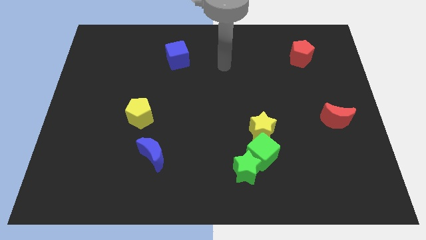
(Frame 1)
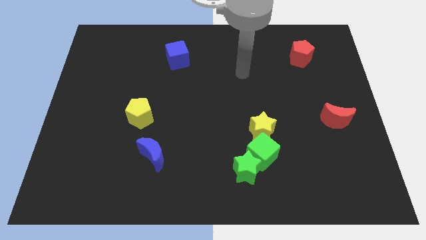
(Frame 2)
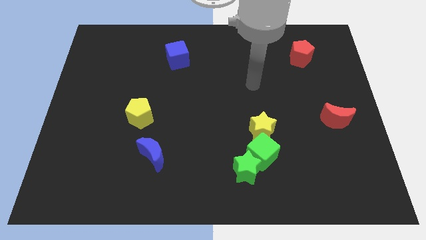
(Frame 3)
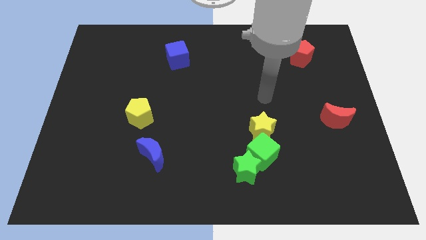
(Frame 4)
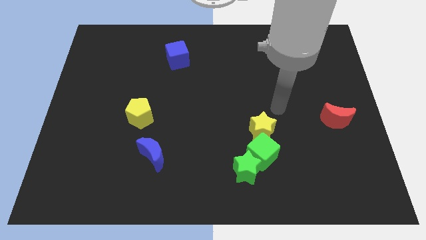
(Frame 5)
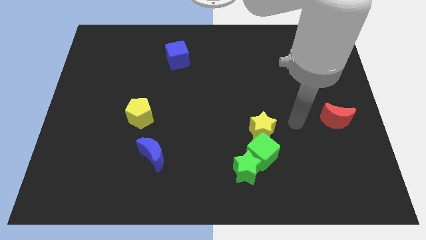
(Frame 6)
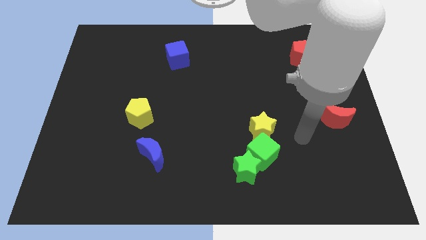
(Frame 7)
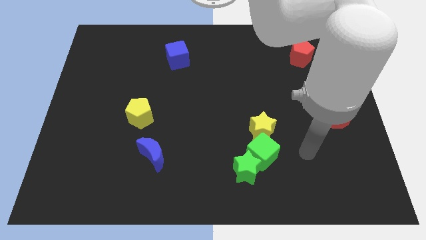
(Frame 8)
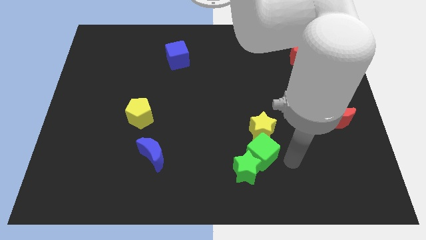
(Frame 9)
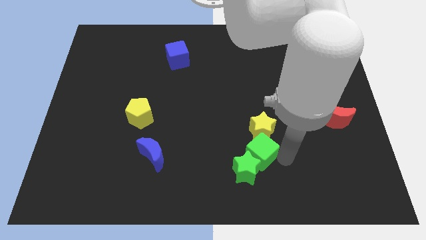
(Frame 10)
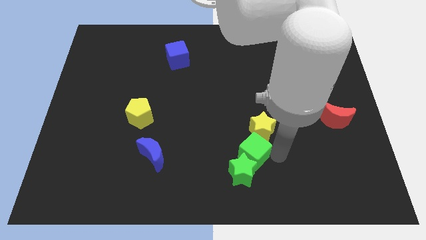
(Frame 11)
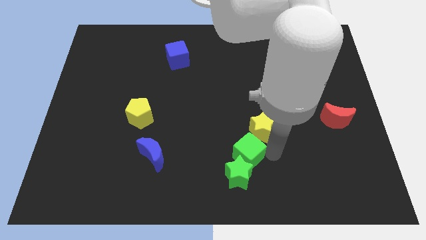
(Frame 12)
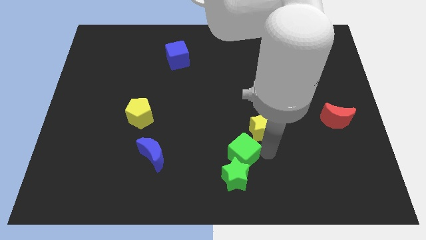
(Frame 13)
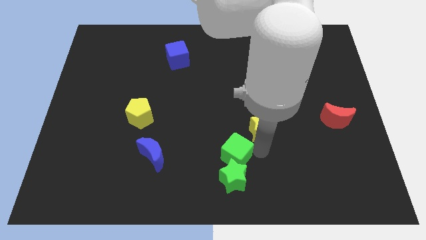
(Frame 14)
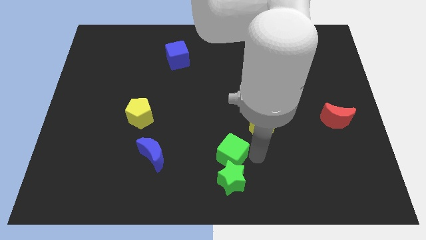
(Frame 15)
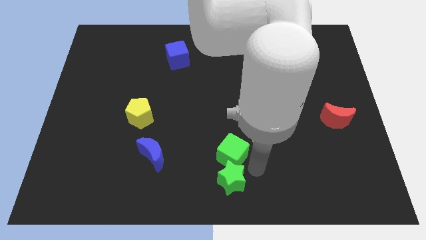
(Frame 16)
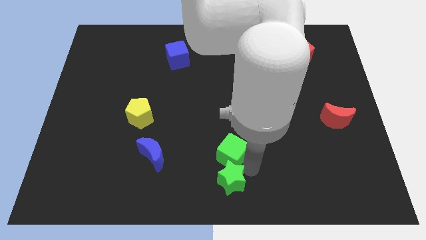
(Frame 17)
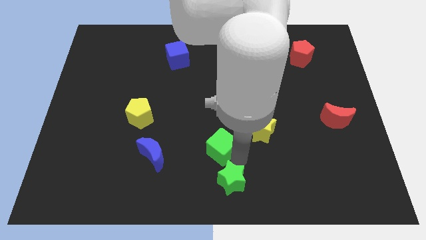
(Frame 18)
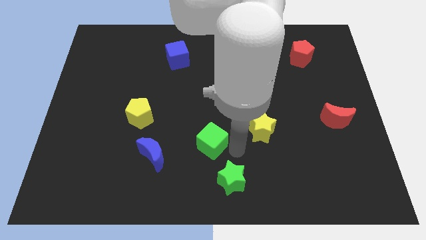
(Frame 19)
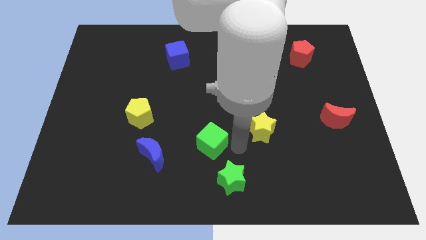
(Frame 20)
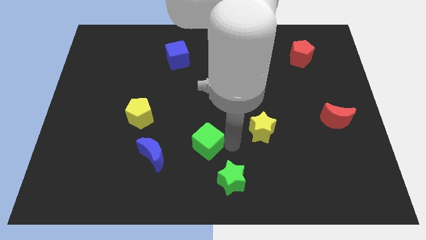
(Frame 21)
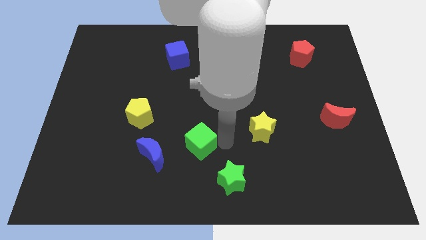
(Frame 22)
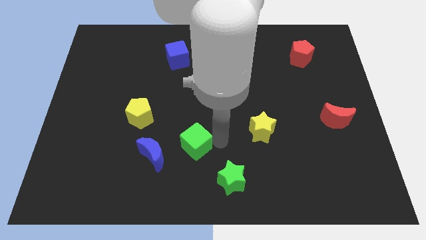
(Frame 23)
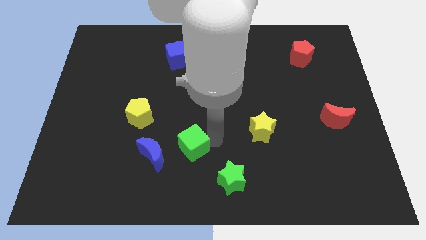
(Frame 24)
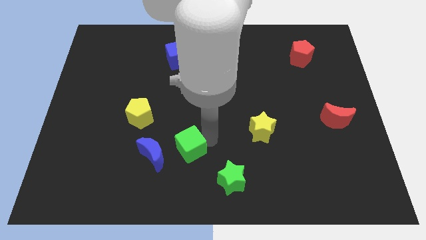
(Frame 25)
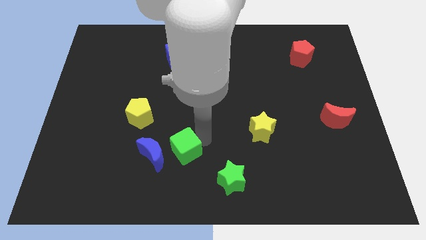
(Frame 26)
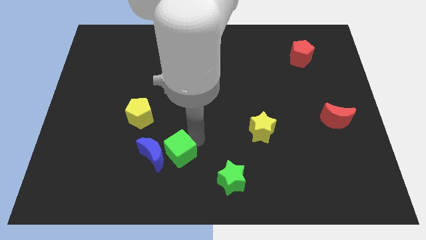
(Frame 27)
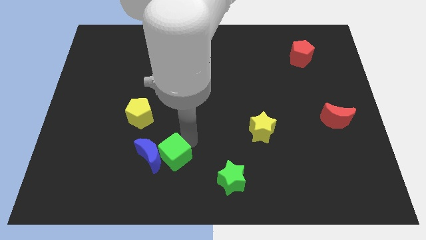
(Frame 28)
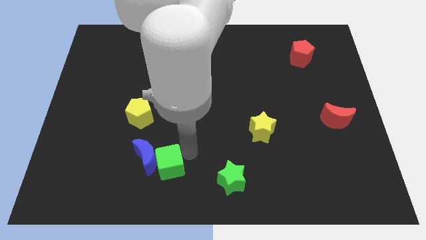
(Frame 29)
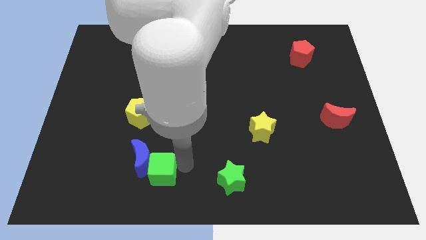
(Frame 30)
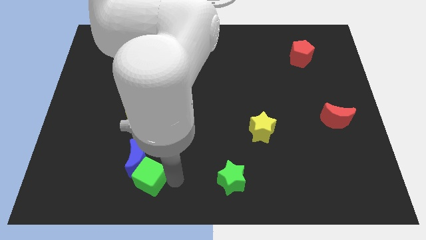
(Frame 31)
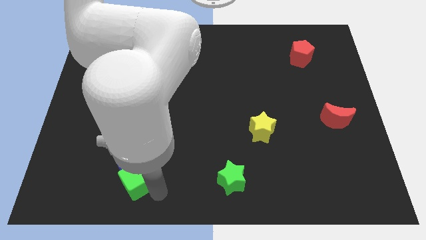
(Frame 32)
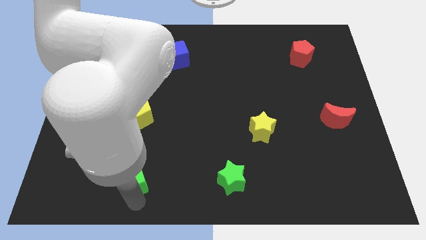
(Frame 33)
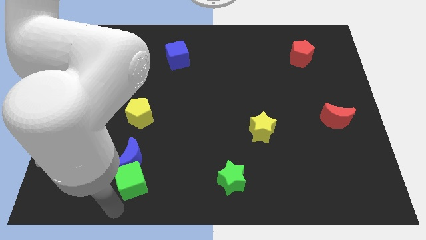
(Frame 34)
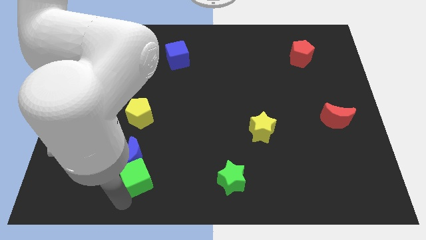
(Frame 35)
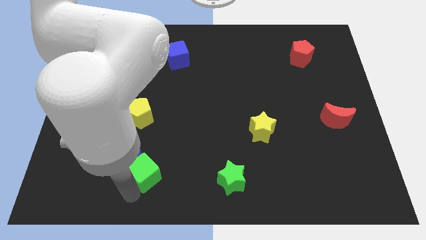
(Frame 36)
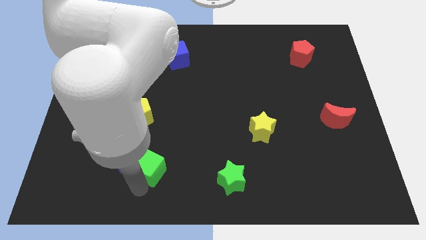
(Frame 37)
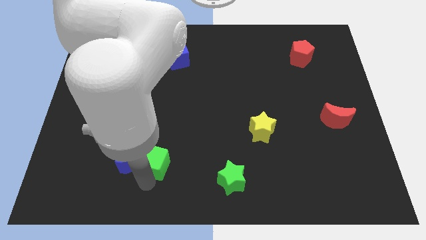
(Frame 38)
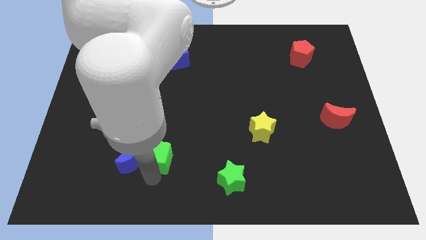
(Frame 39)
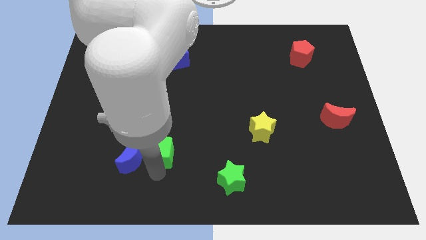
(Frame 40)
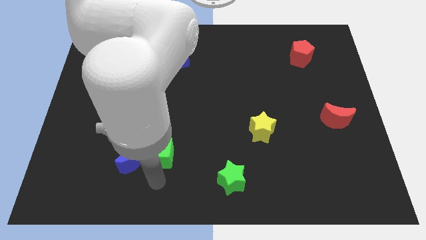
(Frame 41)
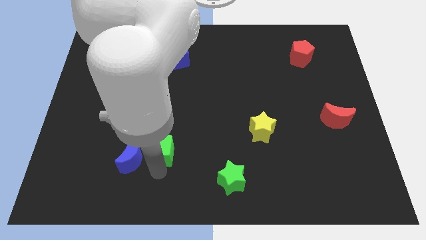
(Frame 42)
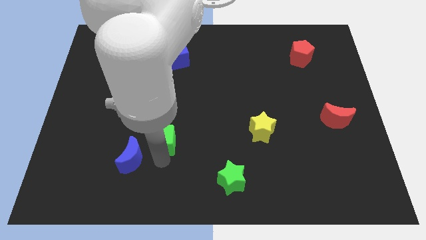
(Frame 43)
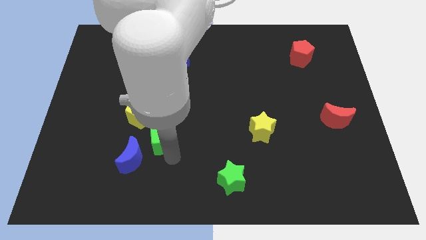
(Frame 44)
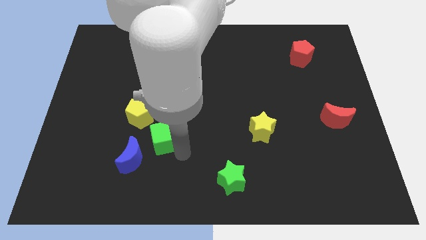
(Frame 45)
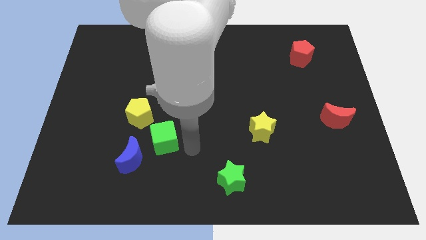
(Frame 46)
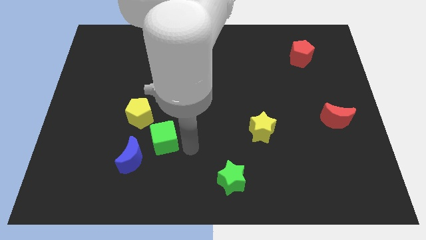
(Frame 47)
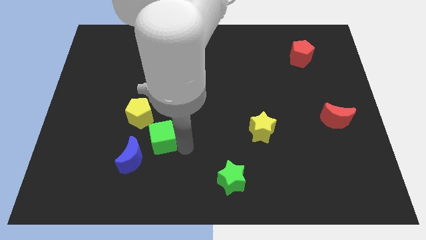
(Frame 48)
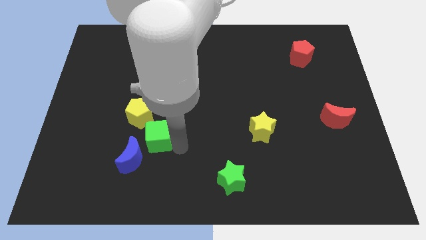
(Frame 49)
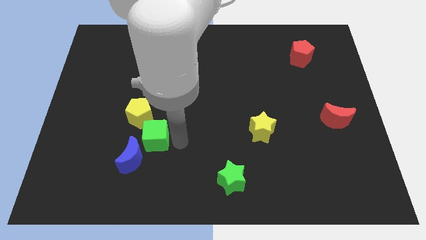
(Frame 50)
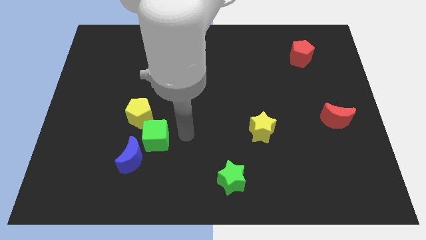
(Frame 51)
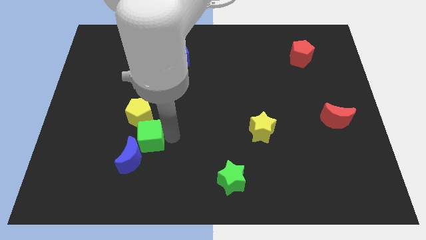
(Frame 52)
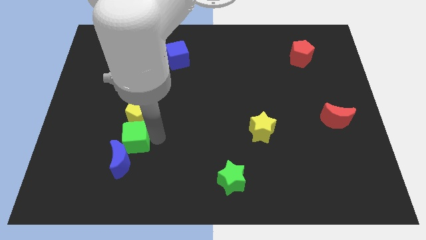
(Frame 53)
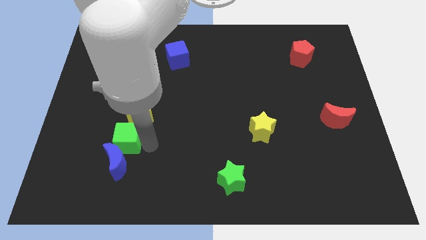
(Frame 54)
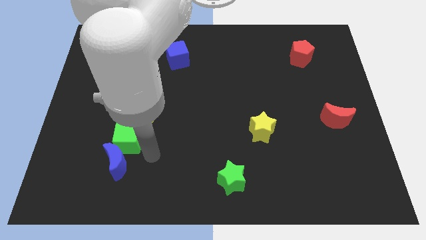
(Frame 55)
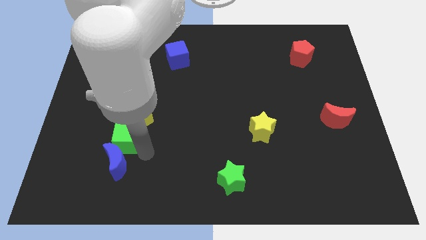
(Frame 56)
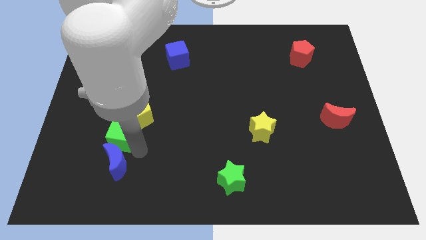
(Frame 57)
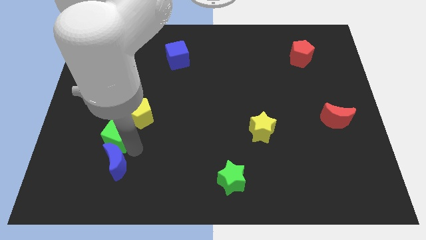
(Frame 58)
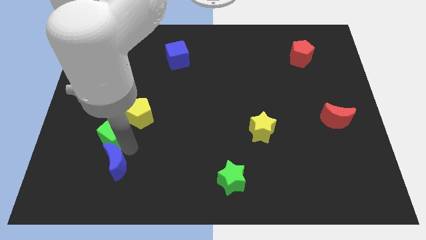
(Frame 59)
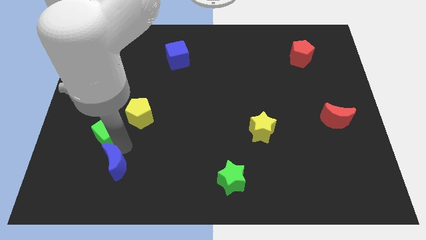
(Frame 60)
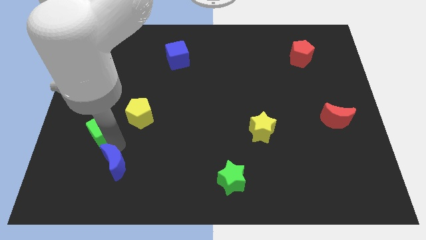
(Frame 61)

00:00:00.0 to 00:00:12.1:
move the green cube just left of the yellow pentagon
